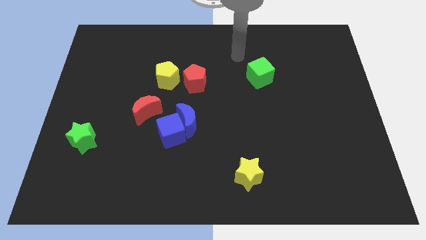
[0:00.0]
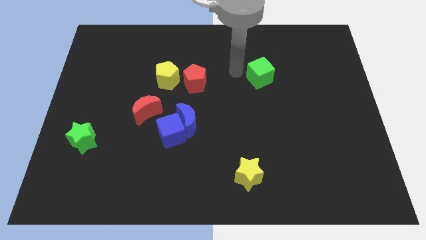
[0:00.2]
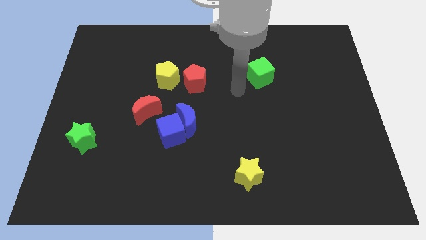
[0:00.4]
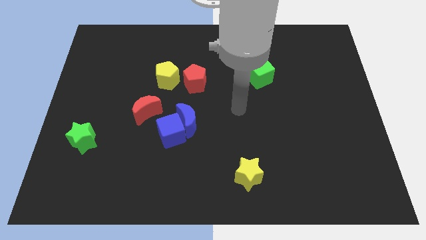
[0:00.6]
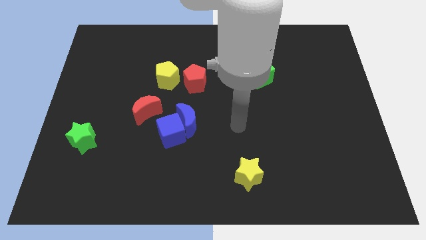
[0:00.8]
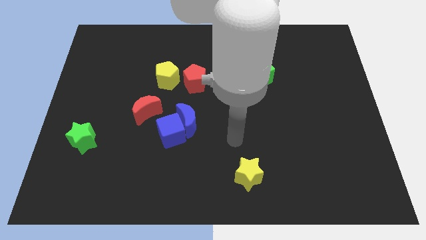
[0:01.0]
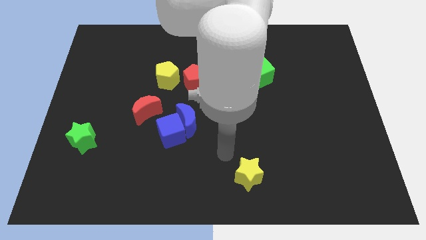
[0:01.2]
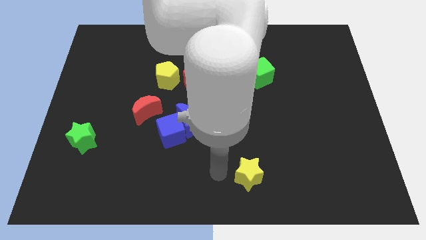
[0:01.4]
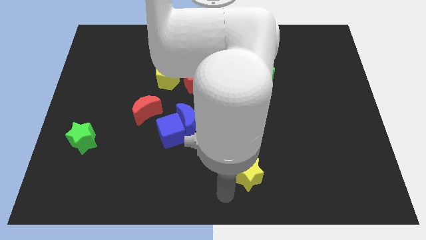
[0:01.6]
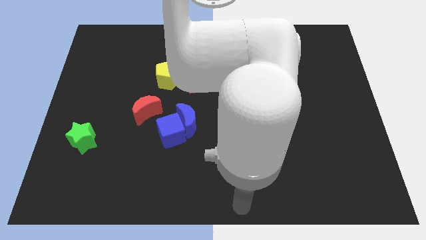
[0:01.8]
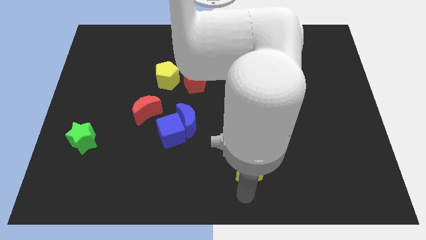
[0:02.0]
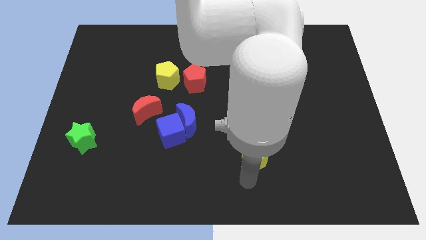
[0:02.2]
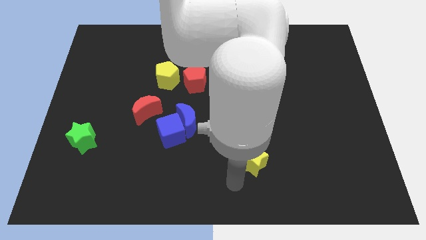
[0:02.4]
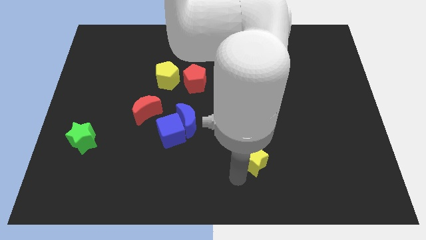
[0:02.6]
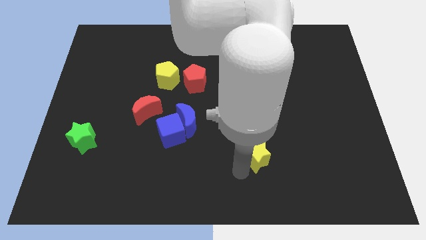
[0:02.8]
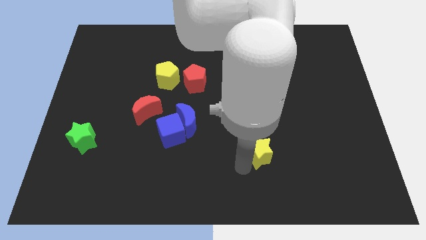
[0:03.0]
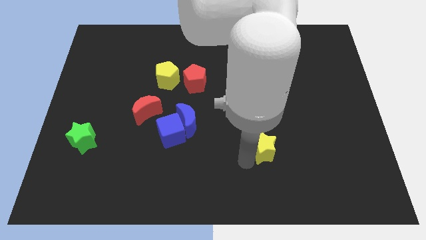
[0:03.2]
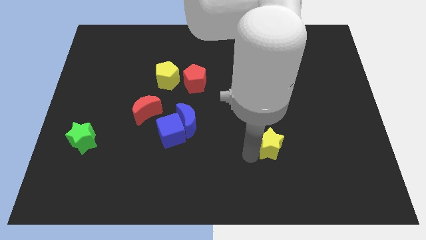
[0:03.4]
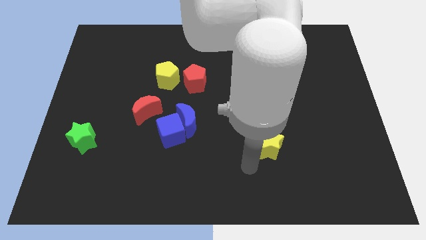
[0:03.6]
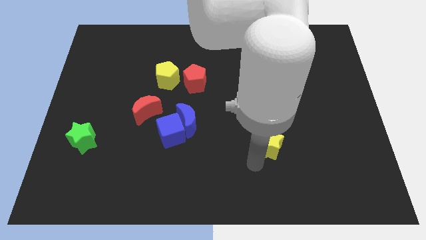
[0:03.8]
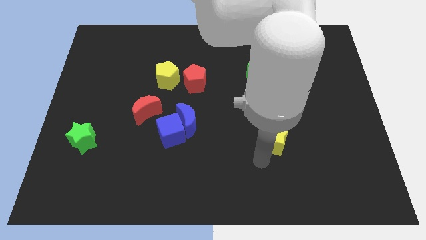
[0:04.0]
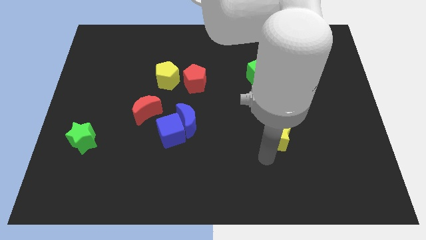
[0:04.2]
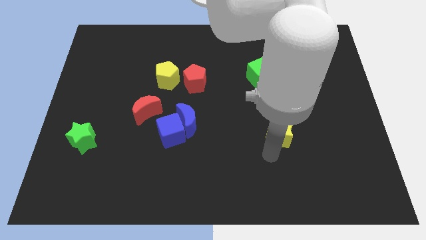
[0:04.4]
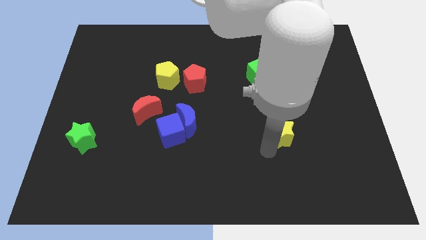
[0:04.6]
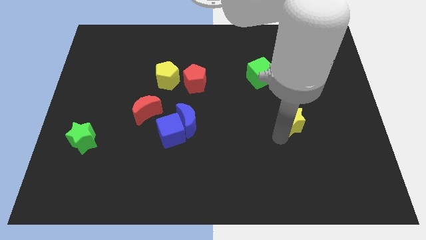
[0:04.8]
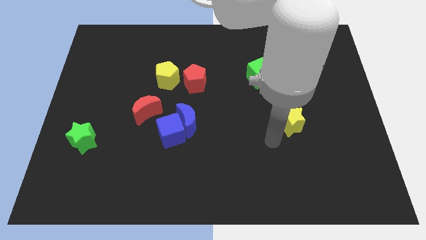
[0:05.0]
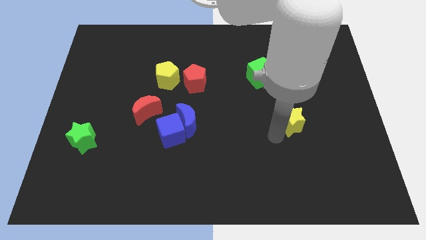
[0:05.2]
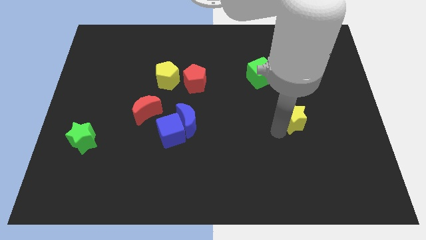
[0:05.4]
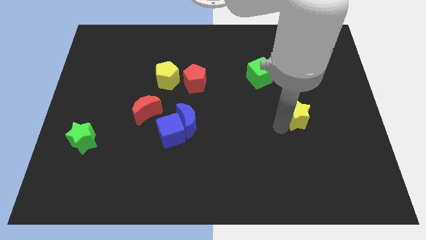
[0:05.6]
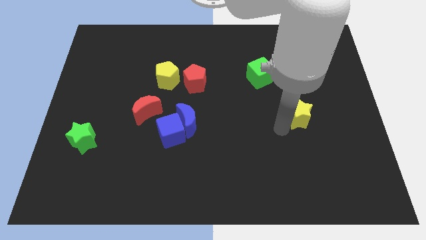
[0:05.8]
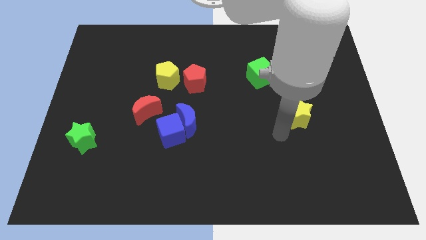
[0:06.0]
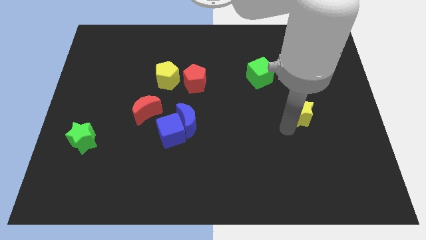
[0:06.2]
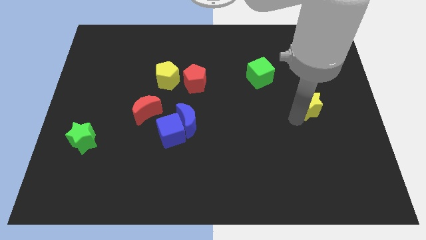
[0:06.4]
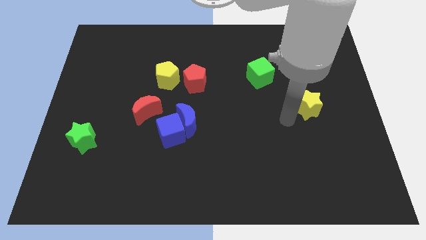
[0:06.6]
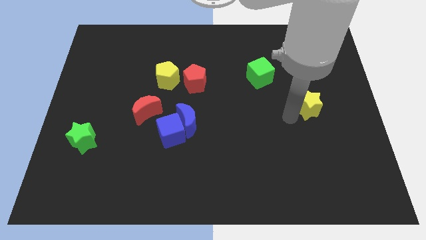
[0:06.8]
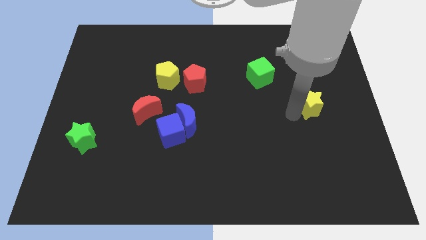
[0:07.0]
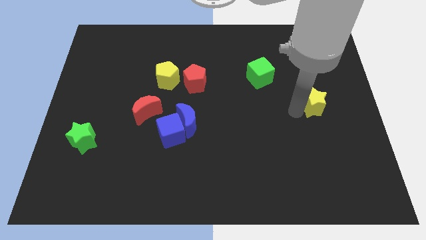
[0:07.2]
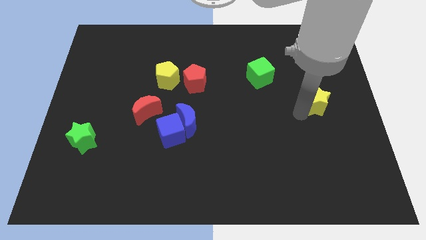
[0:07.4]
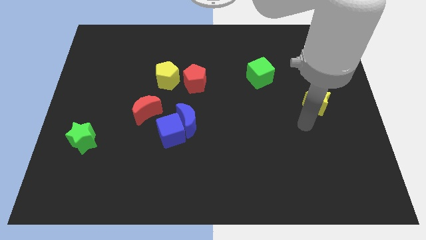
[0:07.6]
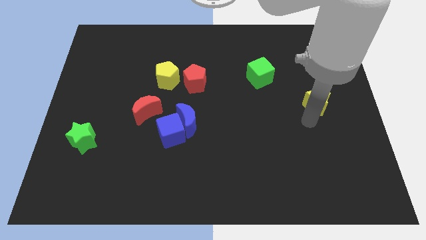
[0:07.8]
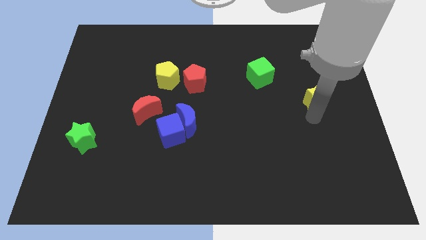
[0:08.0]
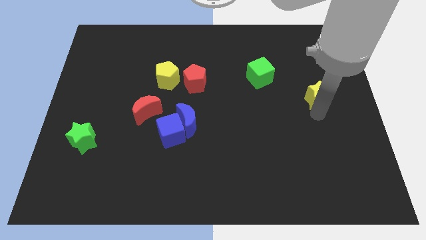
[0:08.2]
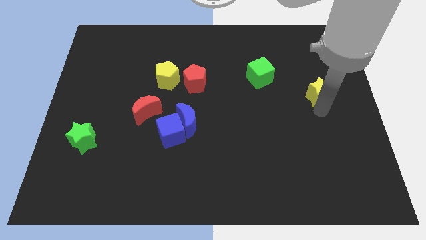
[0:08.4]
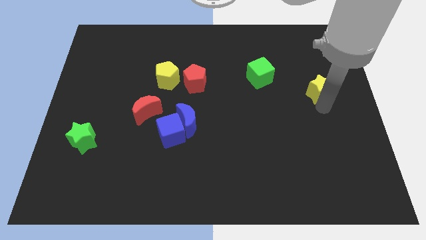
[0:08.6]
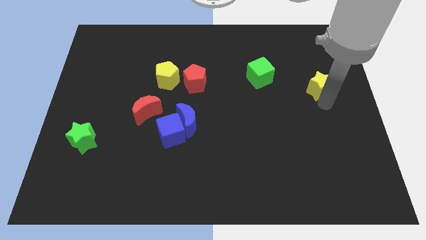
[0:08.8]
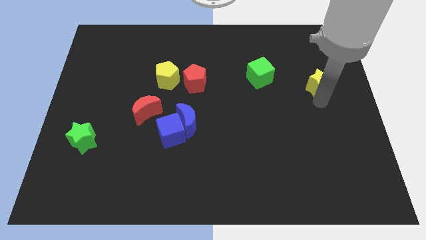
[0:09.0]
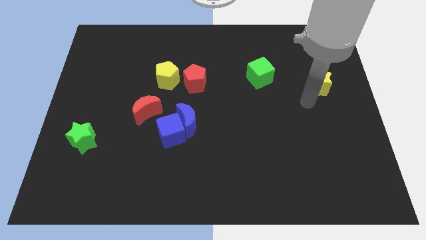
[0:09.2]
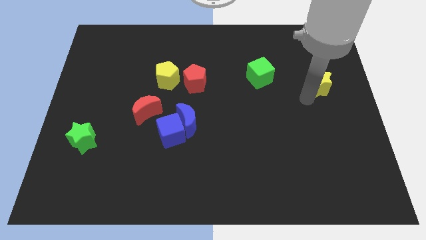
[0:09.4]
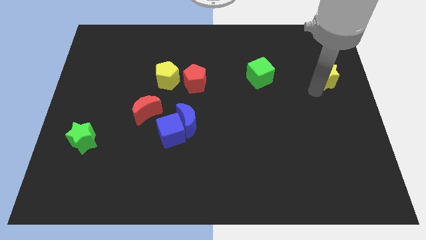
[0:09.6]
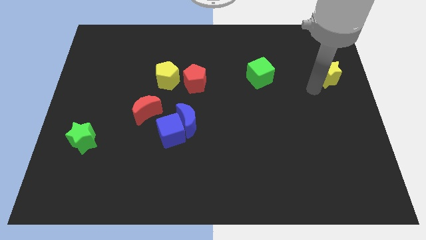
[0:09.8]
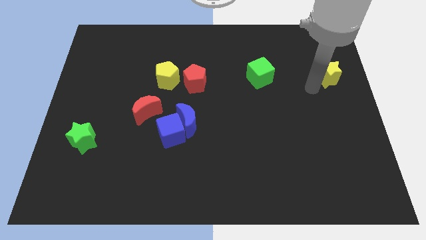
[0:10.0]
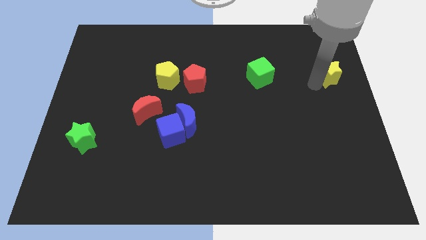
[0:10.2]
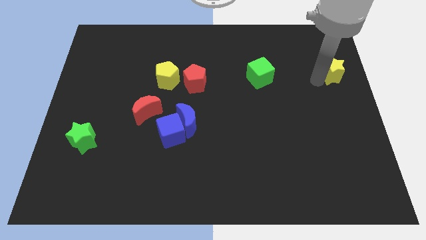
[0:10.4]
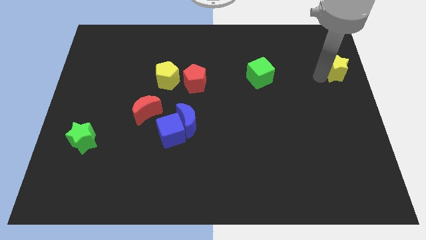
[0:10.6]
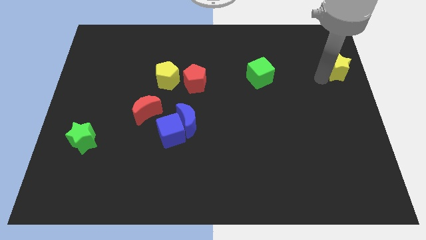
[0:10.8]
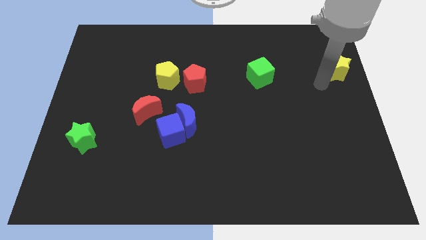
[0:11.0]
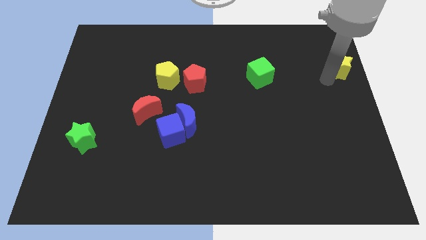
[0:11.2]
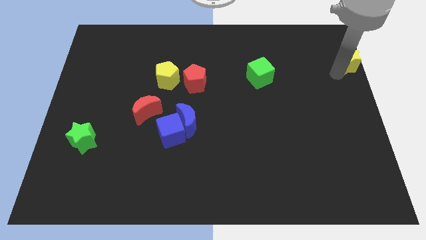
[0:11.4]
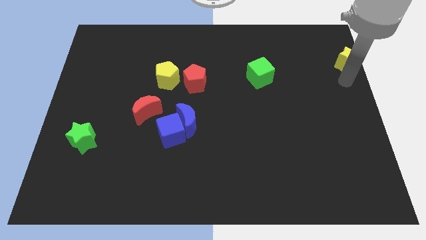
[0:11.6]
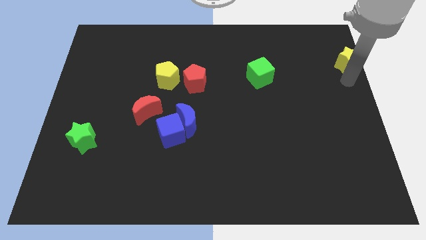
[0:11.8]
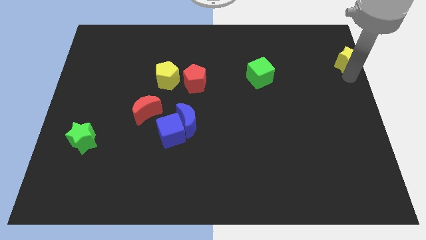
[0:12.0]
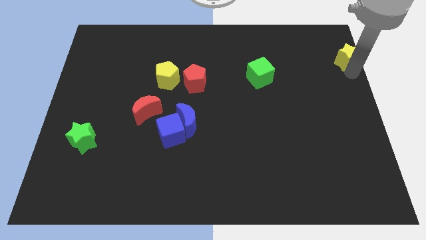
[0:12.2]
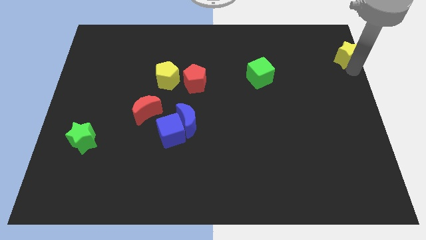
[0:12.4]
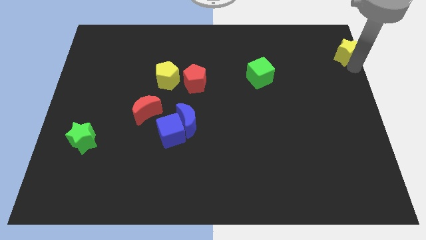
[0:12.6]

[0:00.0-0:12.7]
slide the yellow star to the upper right corner
